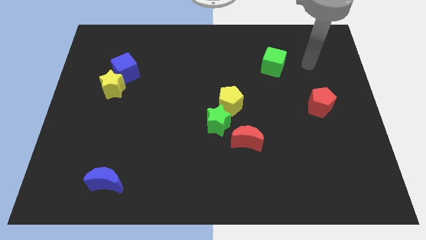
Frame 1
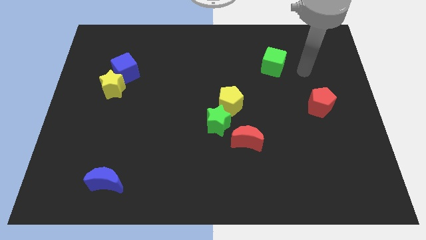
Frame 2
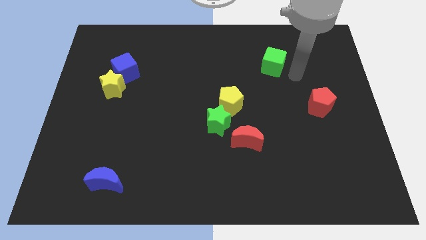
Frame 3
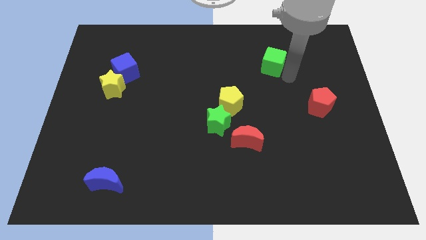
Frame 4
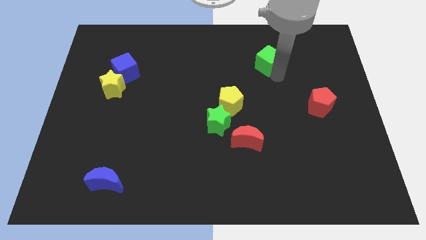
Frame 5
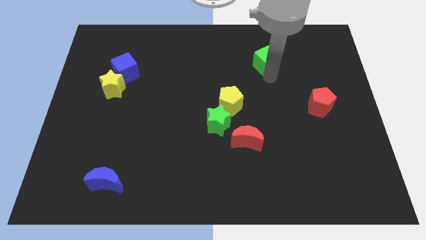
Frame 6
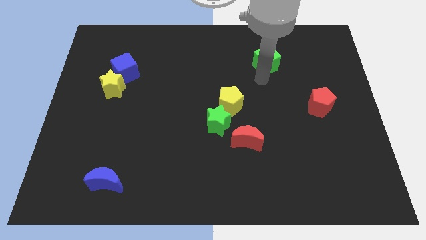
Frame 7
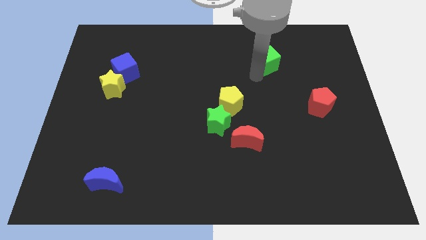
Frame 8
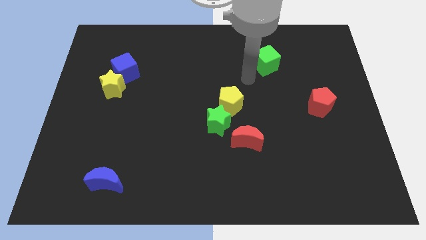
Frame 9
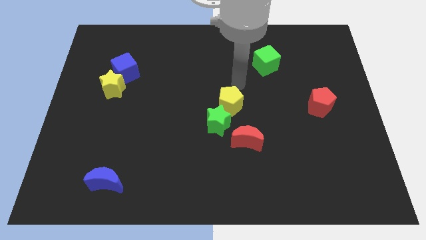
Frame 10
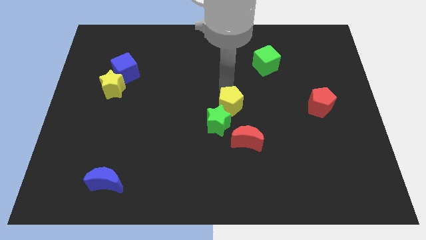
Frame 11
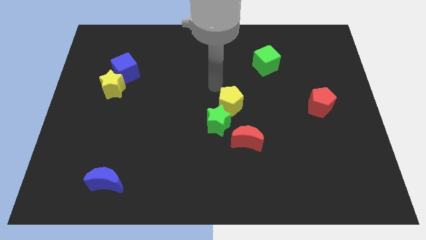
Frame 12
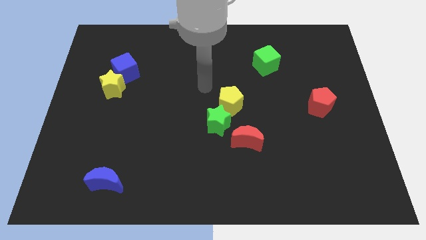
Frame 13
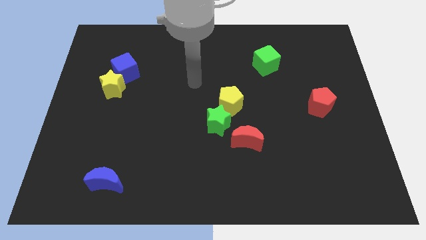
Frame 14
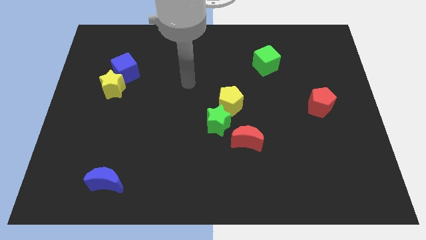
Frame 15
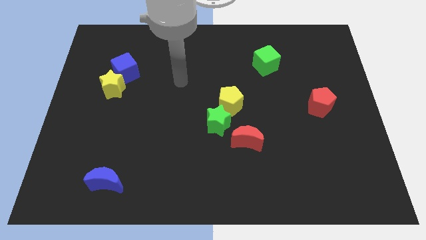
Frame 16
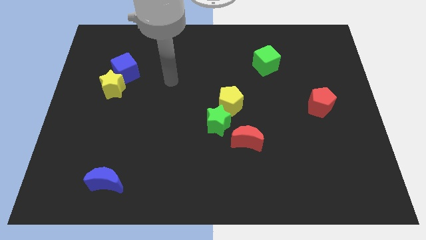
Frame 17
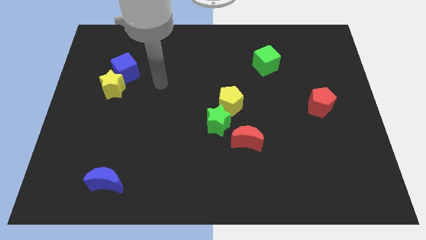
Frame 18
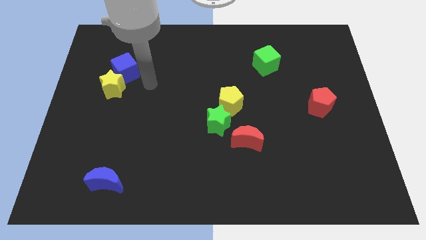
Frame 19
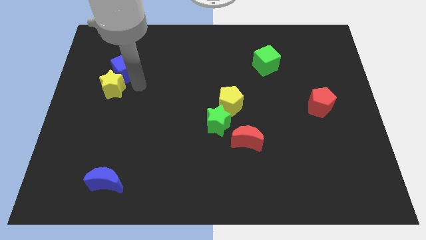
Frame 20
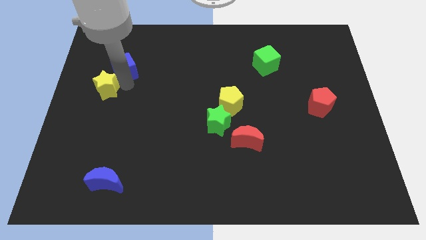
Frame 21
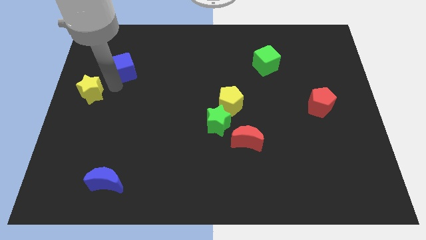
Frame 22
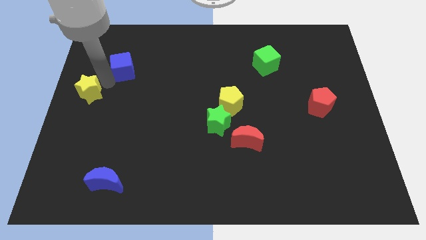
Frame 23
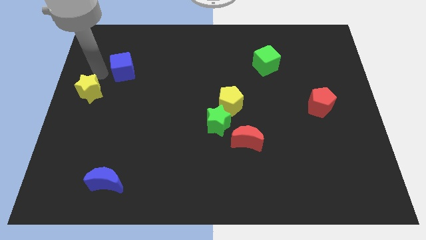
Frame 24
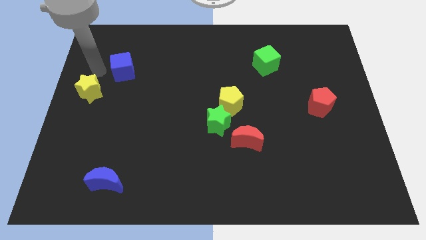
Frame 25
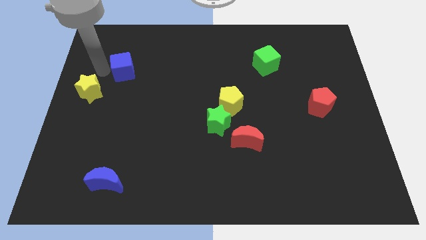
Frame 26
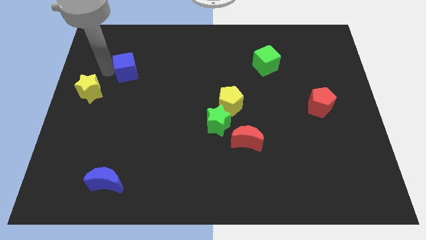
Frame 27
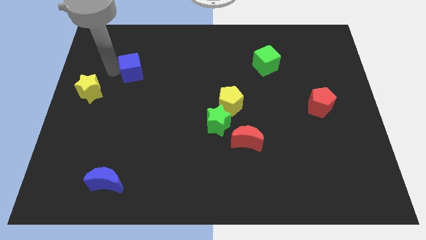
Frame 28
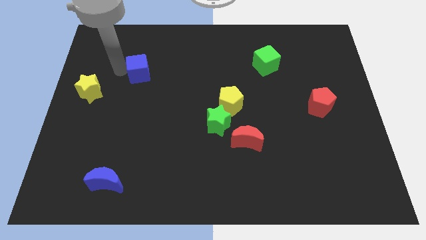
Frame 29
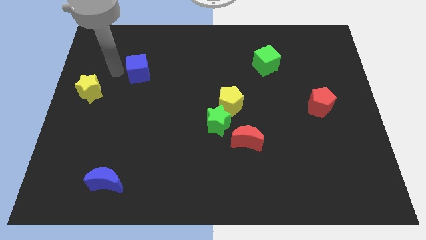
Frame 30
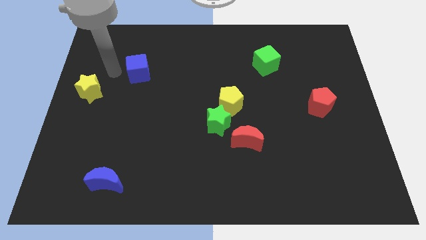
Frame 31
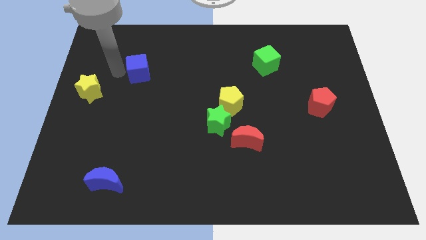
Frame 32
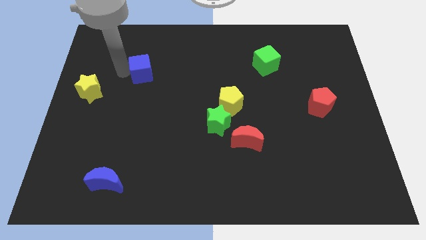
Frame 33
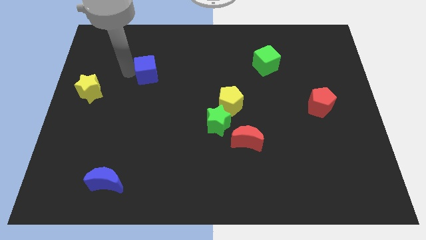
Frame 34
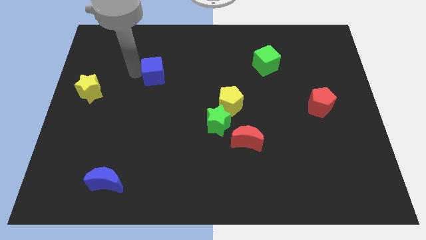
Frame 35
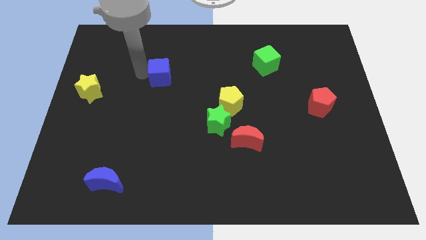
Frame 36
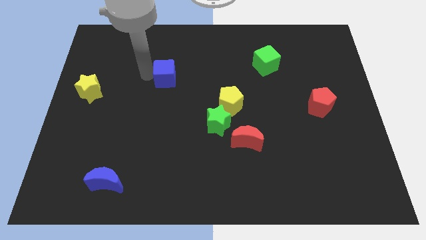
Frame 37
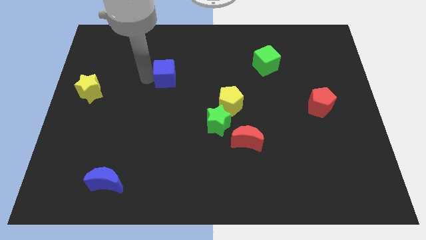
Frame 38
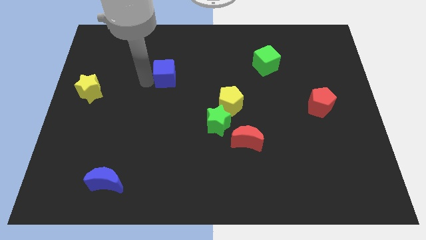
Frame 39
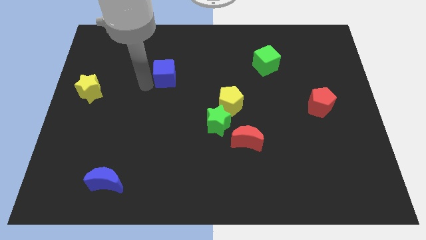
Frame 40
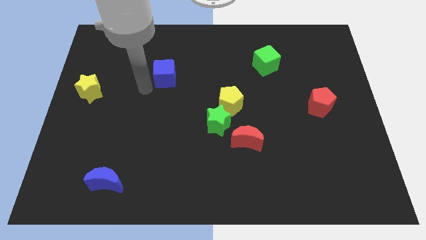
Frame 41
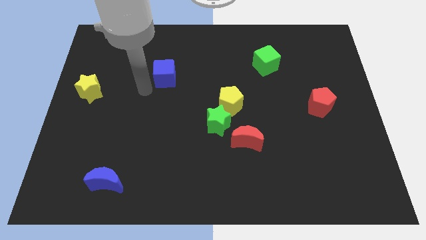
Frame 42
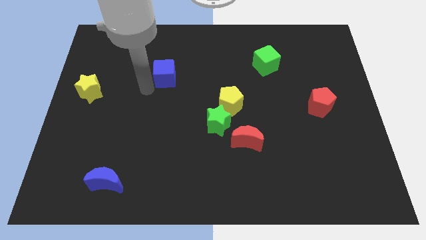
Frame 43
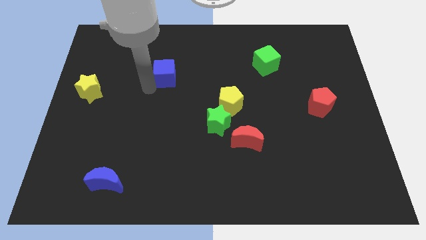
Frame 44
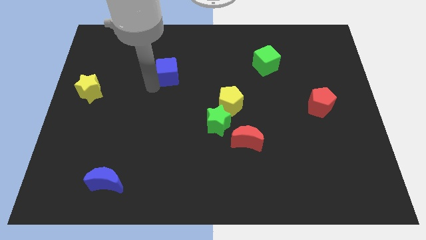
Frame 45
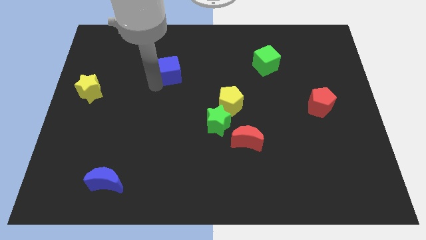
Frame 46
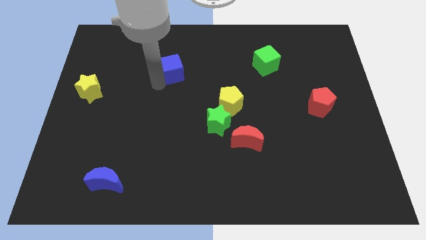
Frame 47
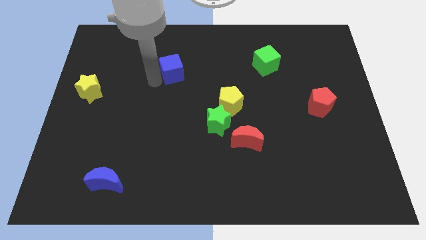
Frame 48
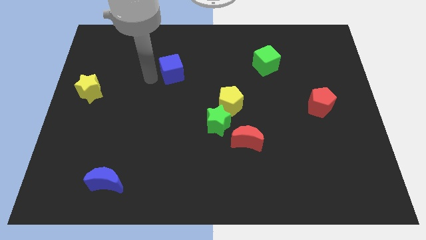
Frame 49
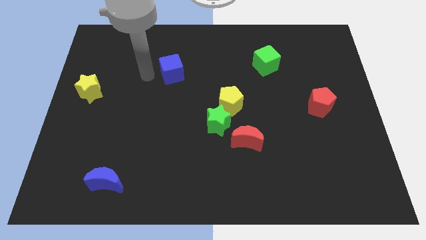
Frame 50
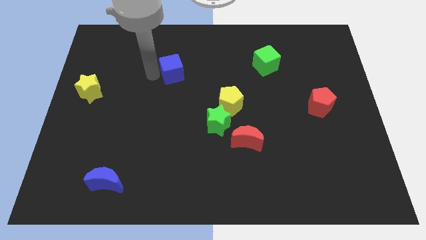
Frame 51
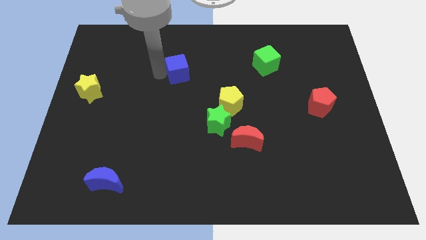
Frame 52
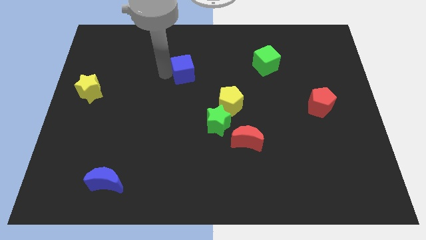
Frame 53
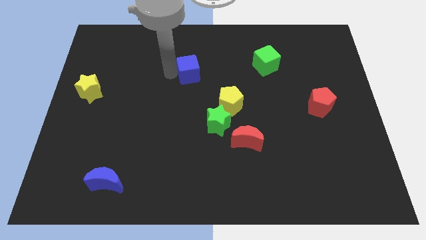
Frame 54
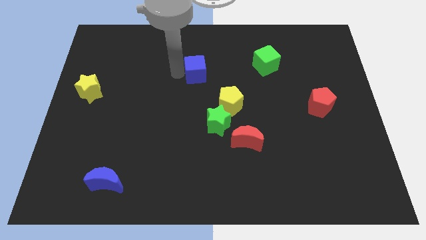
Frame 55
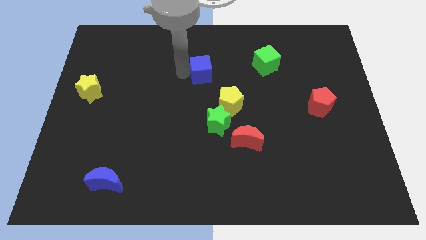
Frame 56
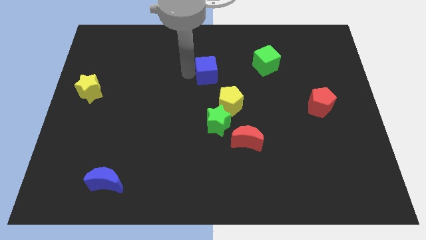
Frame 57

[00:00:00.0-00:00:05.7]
slide the blue cube right

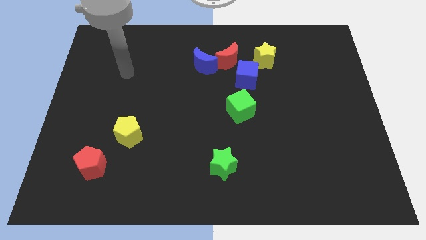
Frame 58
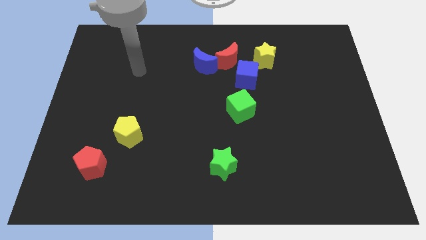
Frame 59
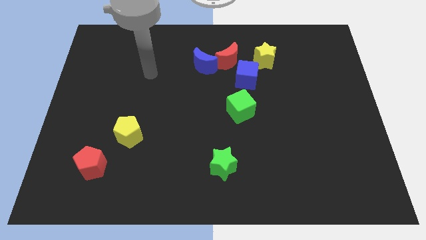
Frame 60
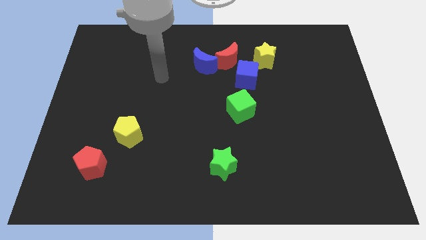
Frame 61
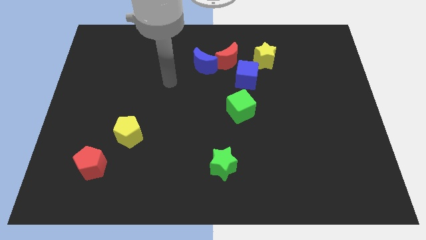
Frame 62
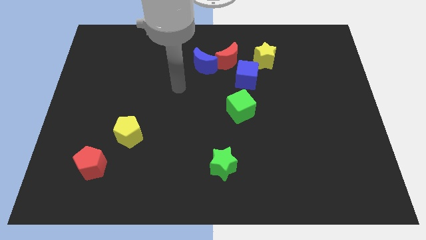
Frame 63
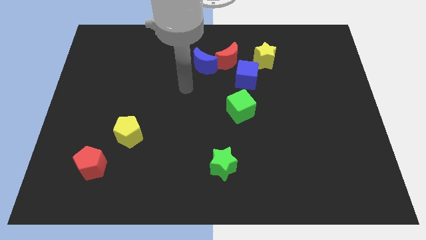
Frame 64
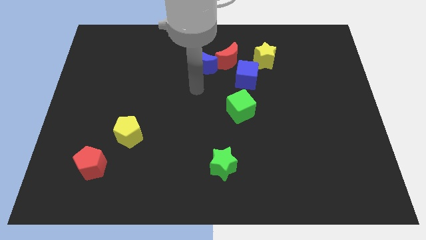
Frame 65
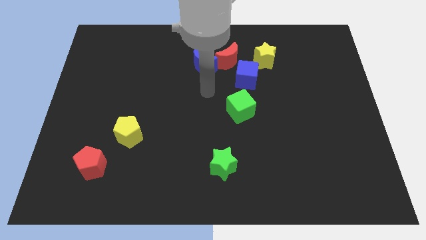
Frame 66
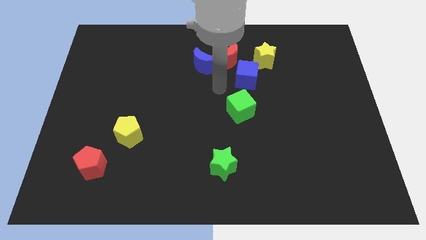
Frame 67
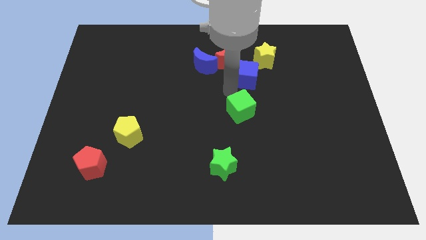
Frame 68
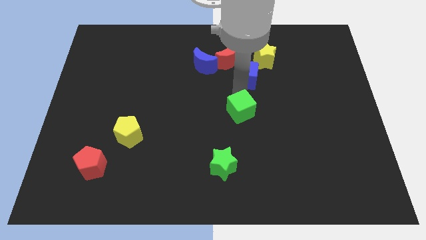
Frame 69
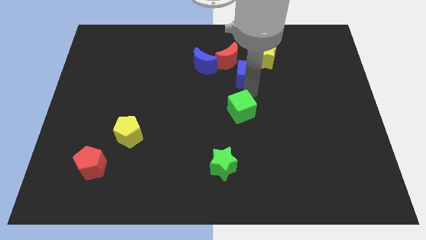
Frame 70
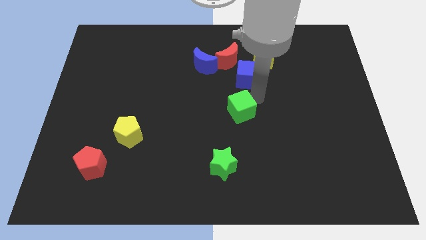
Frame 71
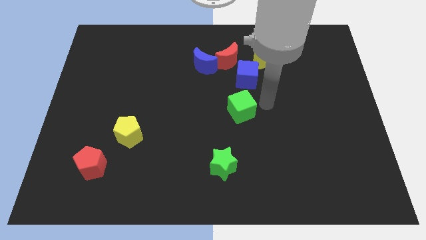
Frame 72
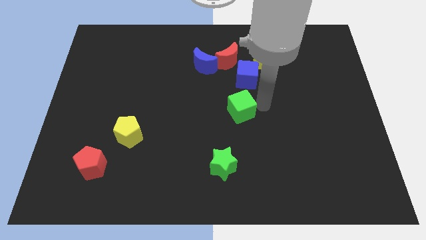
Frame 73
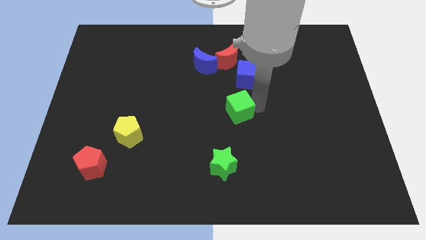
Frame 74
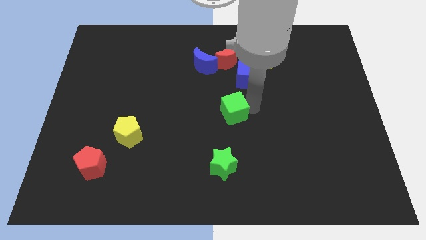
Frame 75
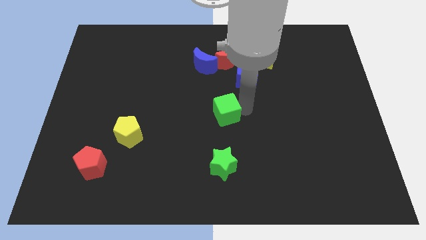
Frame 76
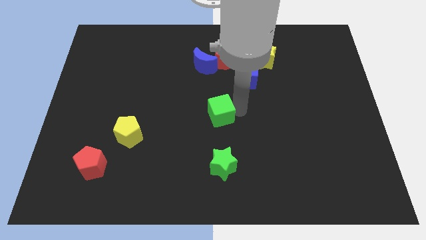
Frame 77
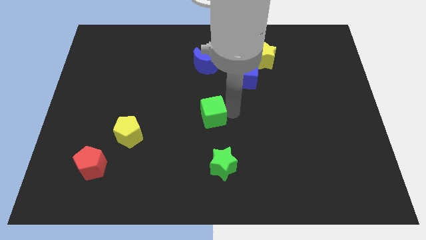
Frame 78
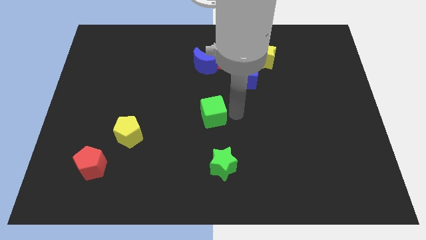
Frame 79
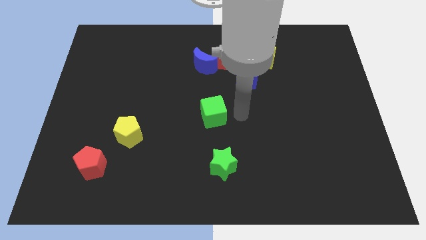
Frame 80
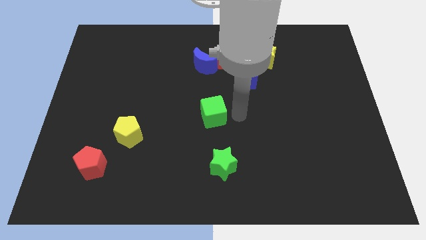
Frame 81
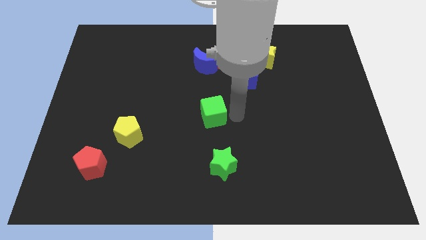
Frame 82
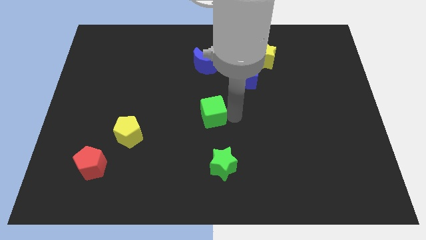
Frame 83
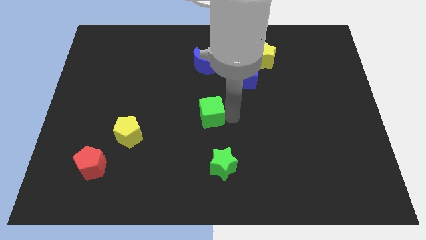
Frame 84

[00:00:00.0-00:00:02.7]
move the green cube left a little
